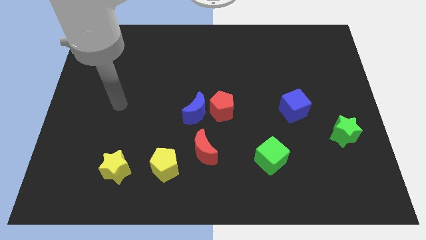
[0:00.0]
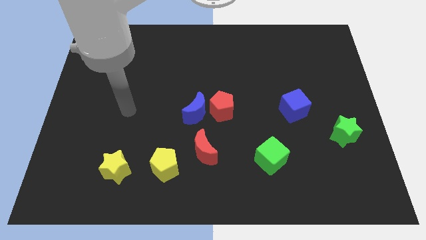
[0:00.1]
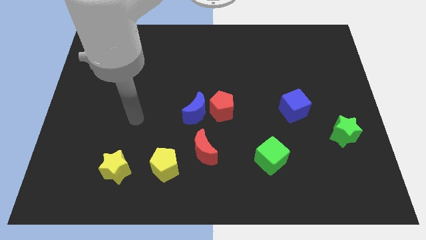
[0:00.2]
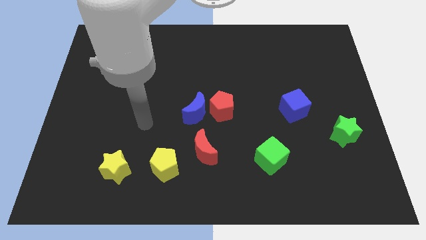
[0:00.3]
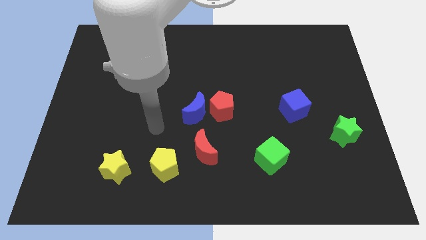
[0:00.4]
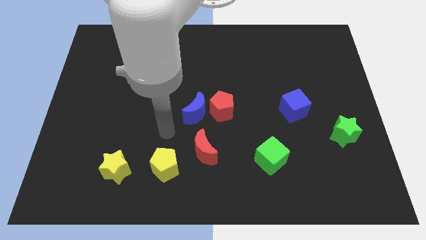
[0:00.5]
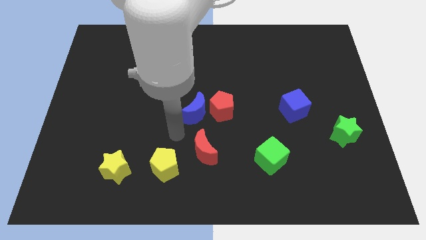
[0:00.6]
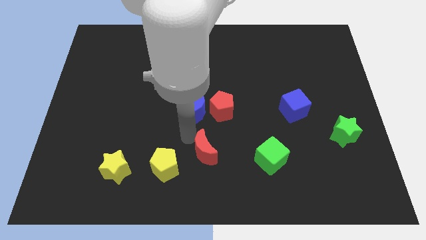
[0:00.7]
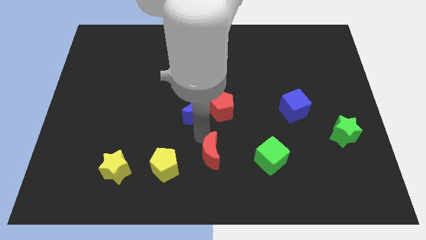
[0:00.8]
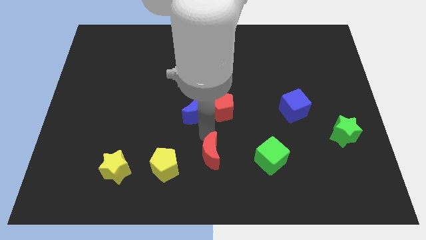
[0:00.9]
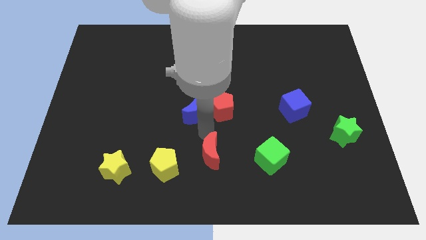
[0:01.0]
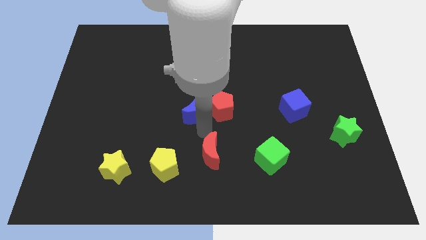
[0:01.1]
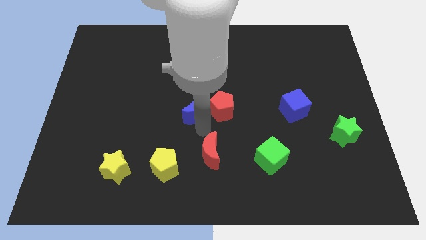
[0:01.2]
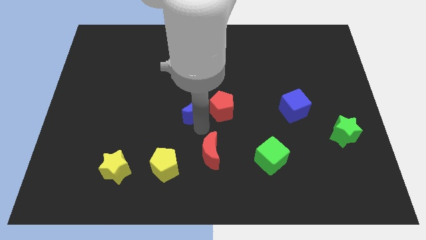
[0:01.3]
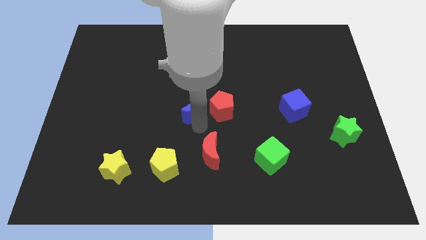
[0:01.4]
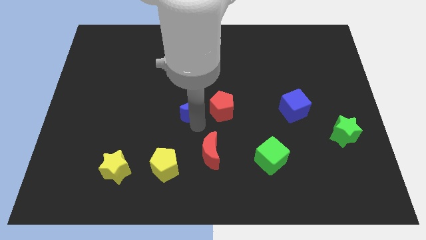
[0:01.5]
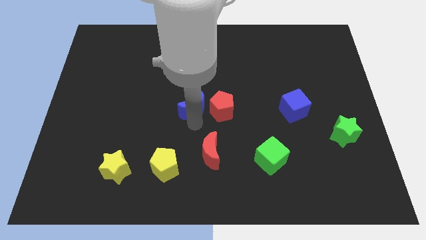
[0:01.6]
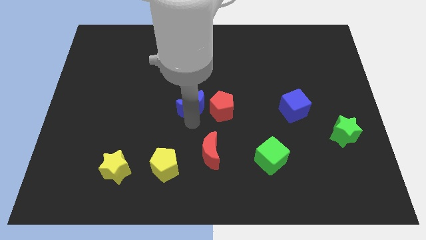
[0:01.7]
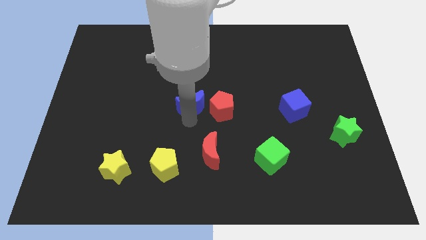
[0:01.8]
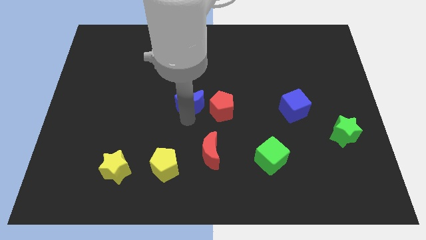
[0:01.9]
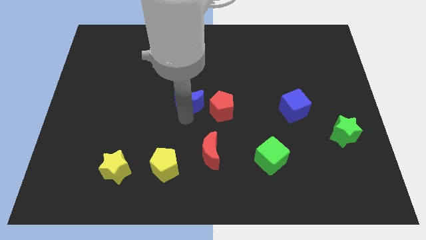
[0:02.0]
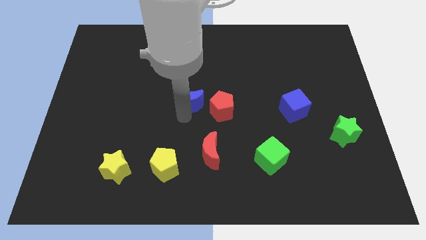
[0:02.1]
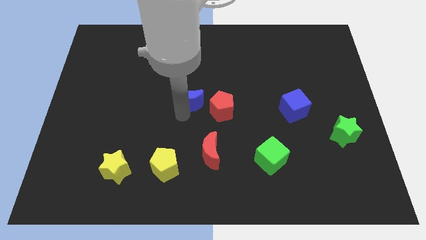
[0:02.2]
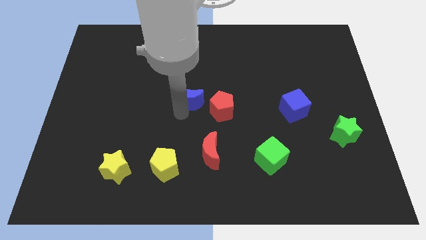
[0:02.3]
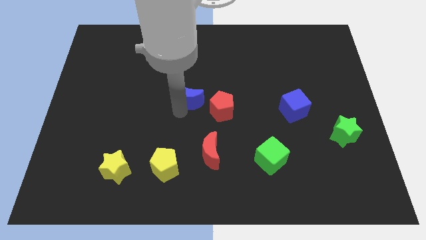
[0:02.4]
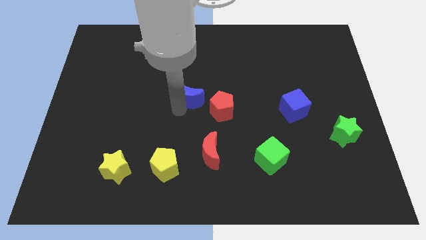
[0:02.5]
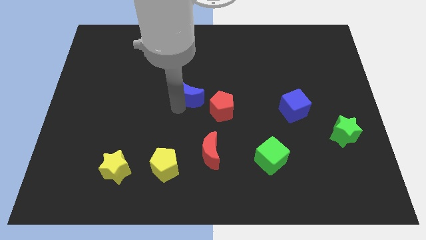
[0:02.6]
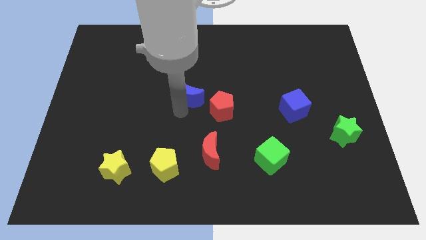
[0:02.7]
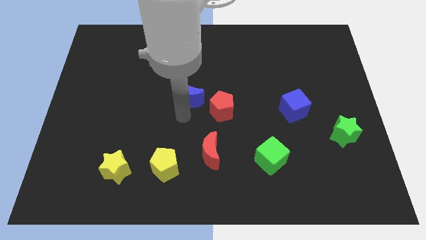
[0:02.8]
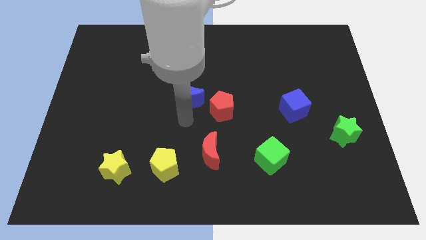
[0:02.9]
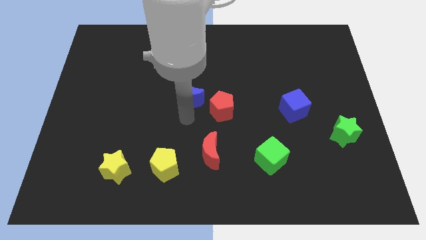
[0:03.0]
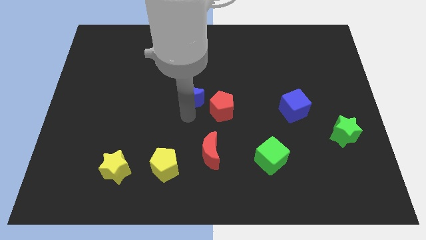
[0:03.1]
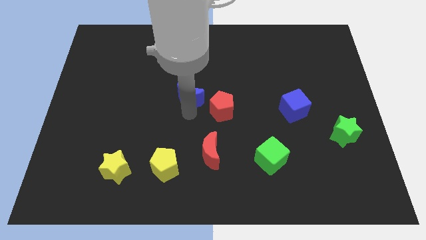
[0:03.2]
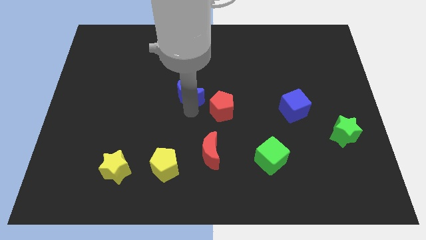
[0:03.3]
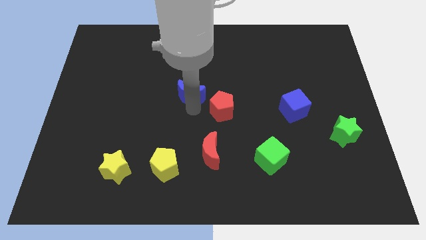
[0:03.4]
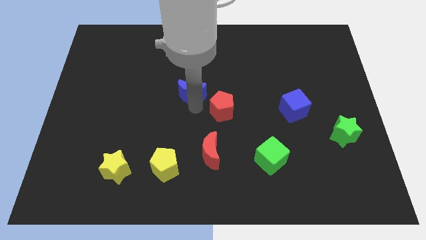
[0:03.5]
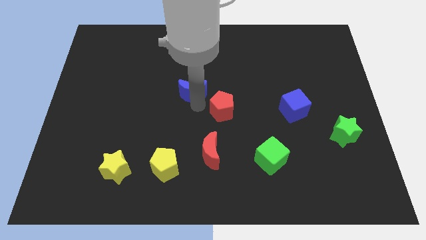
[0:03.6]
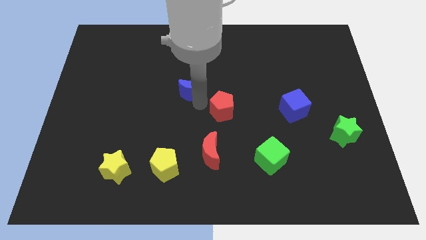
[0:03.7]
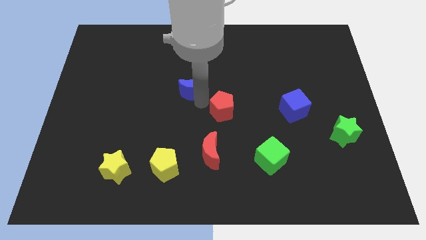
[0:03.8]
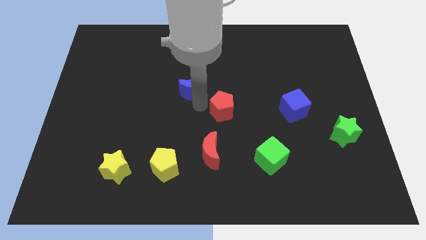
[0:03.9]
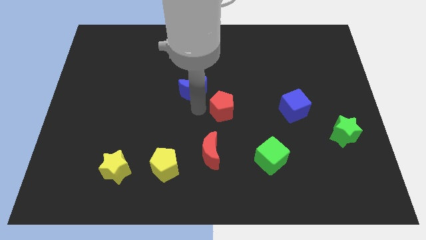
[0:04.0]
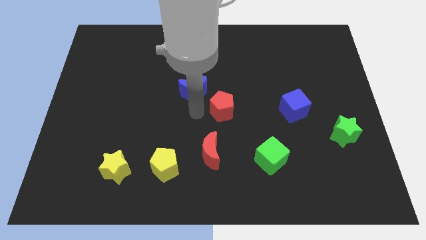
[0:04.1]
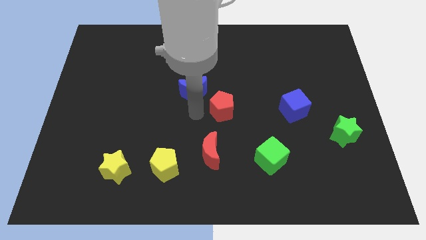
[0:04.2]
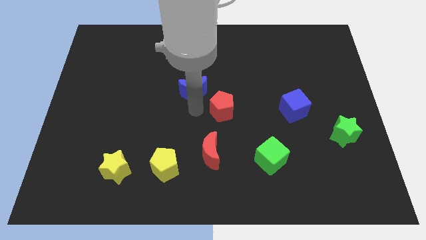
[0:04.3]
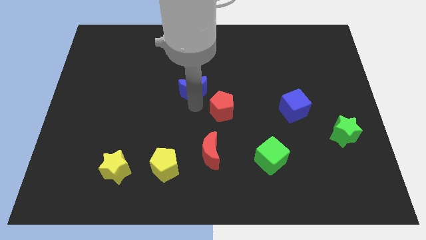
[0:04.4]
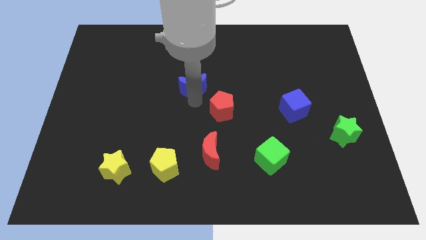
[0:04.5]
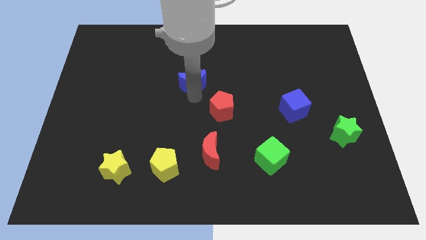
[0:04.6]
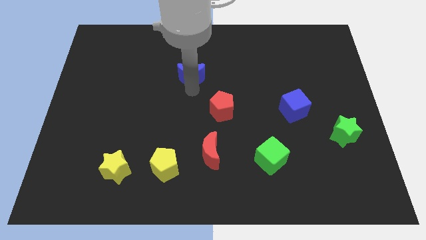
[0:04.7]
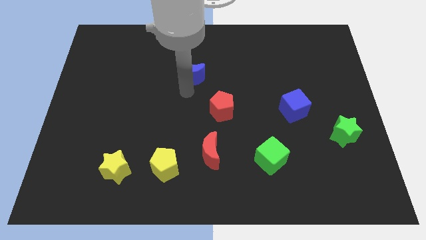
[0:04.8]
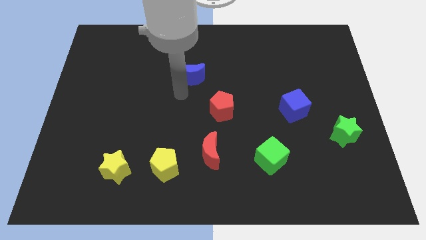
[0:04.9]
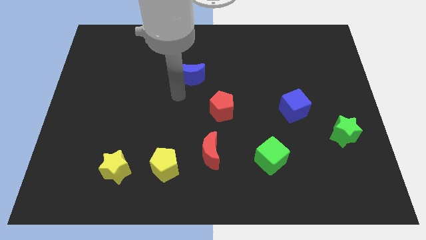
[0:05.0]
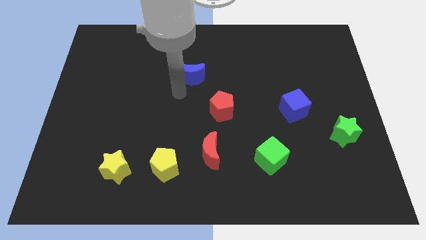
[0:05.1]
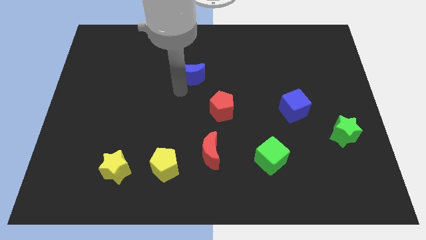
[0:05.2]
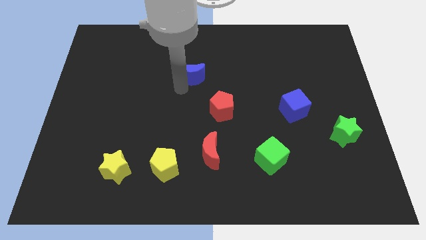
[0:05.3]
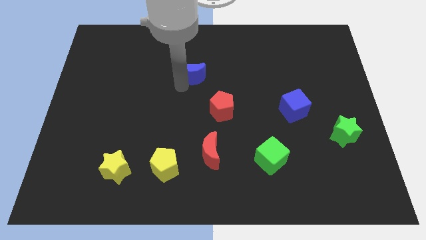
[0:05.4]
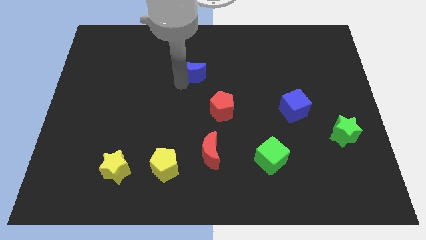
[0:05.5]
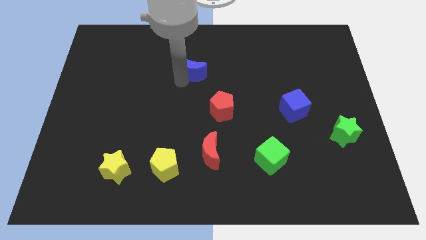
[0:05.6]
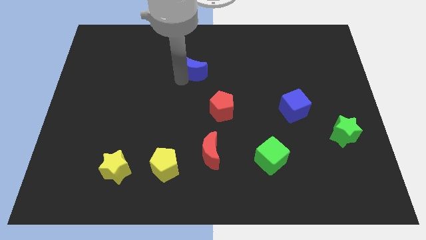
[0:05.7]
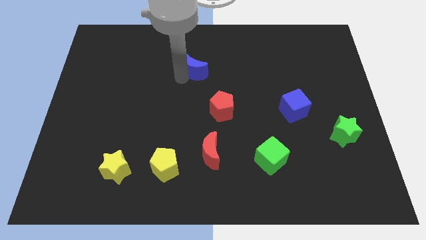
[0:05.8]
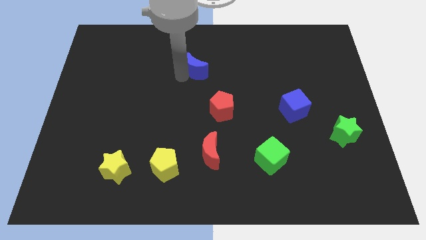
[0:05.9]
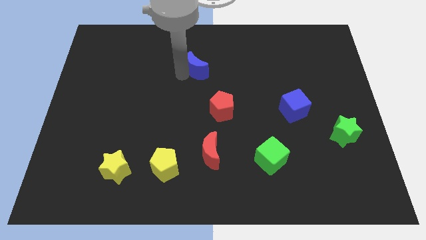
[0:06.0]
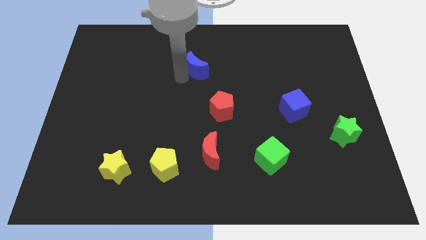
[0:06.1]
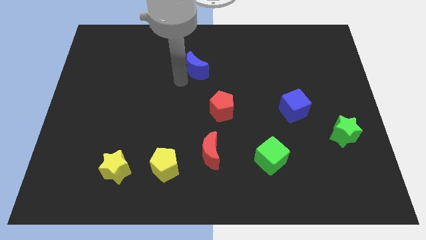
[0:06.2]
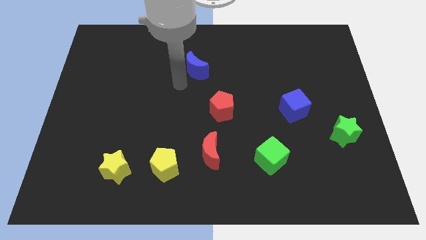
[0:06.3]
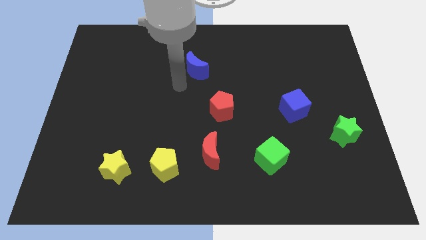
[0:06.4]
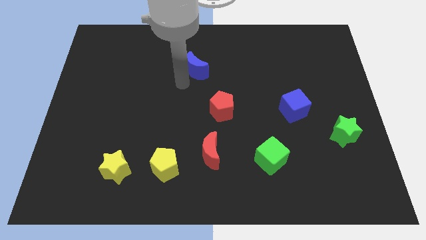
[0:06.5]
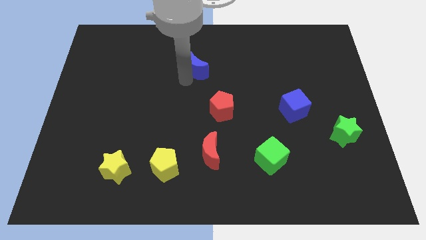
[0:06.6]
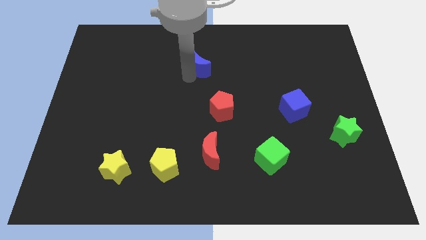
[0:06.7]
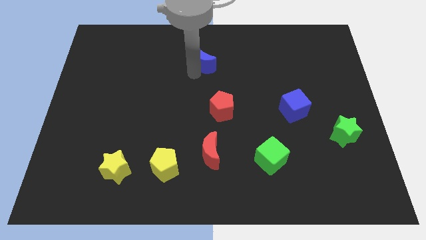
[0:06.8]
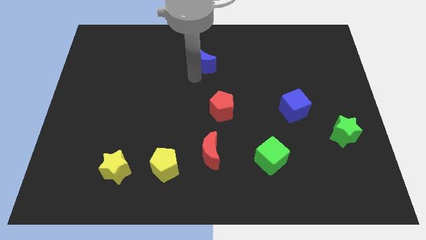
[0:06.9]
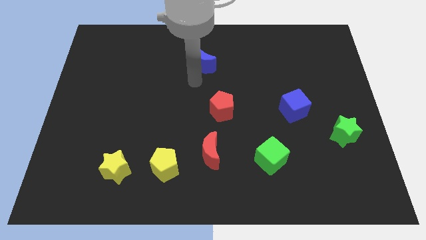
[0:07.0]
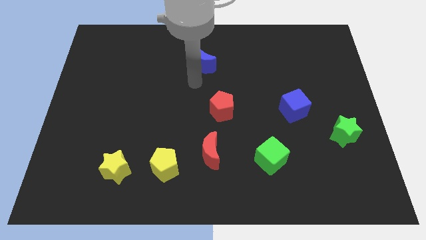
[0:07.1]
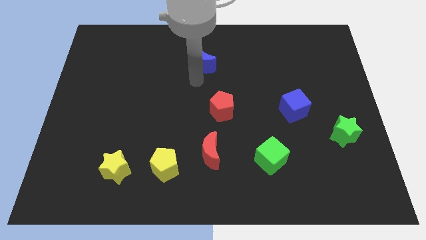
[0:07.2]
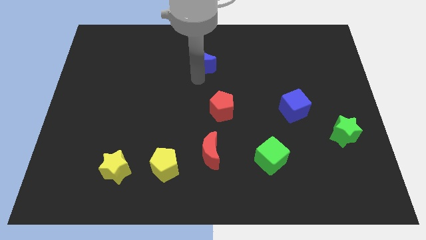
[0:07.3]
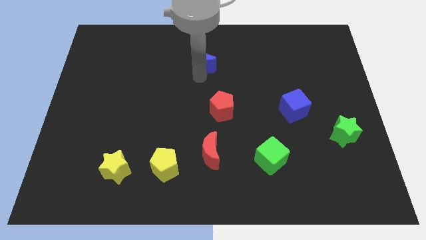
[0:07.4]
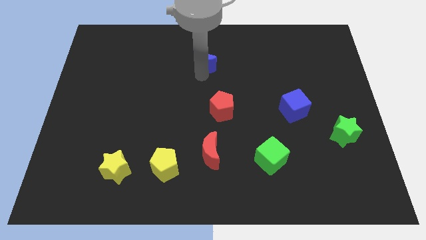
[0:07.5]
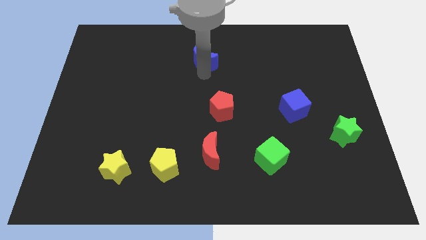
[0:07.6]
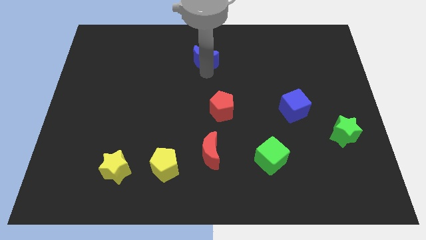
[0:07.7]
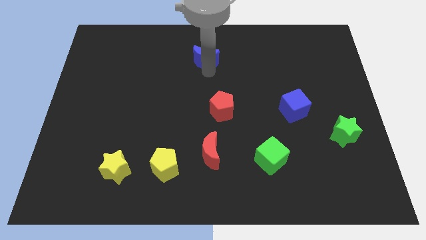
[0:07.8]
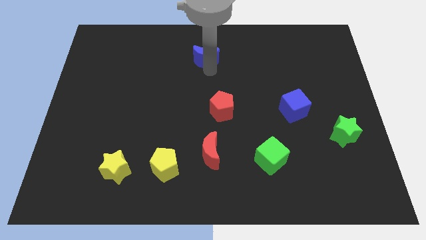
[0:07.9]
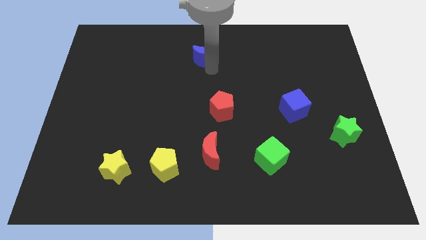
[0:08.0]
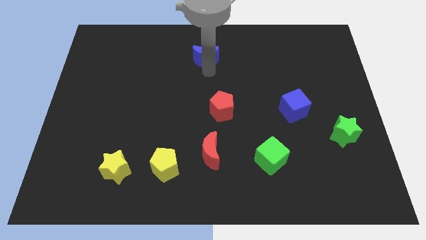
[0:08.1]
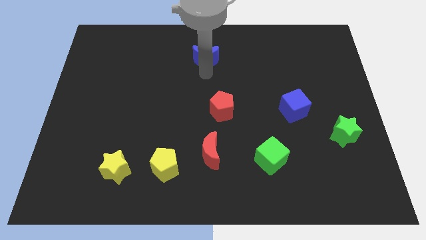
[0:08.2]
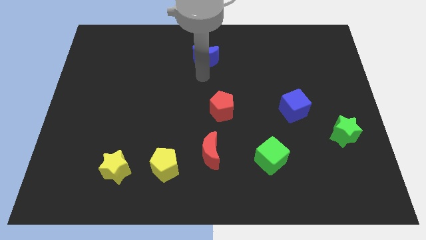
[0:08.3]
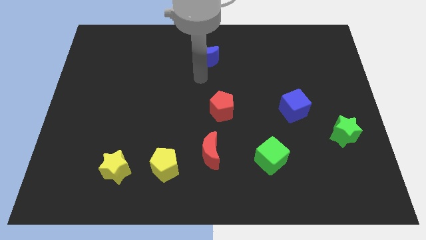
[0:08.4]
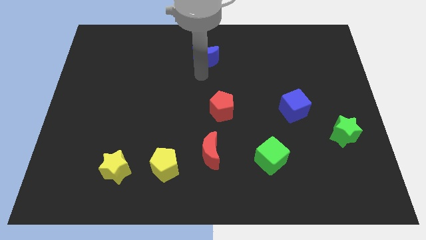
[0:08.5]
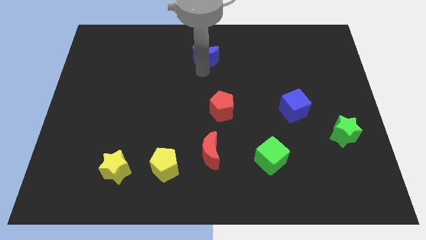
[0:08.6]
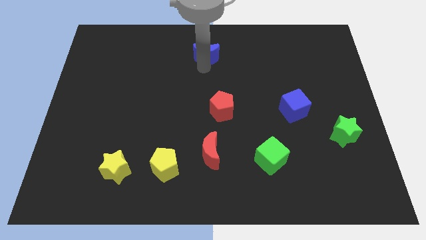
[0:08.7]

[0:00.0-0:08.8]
slide the blue moon to the towards your base
